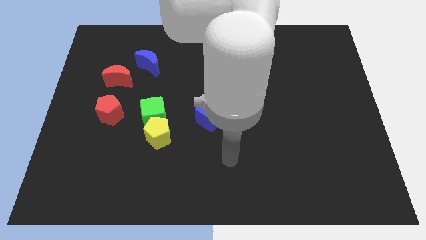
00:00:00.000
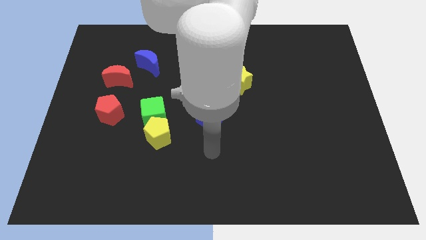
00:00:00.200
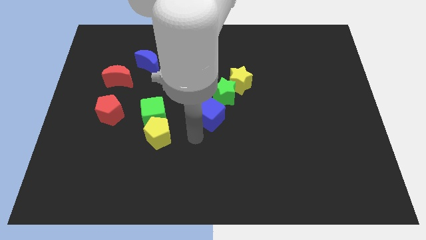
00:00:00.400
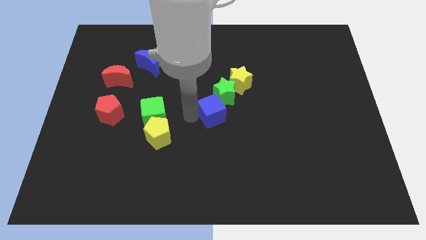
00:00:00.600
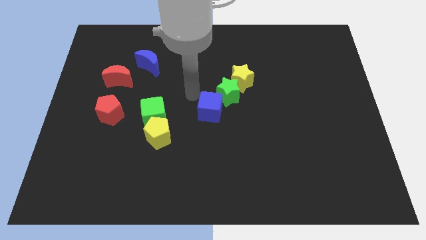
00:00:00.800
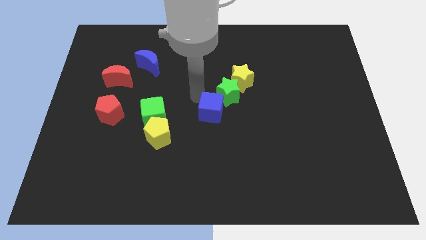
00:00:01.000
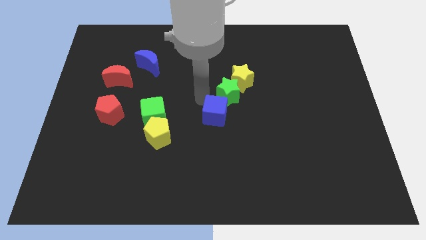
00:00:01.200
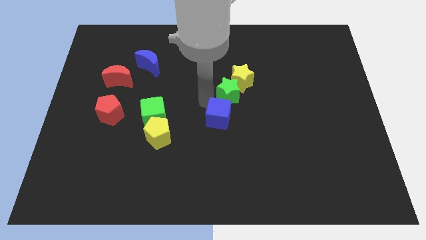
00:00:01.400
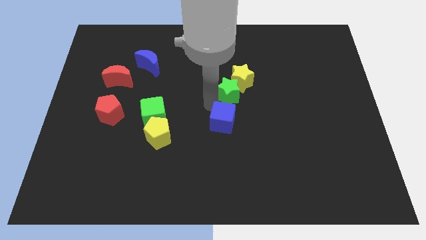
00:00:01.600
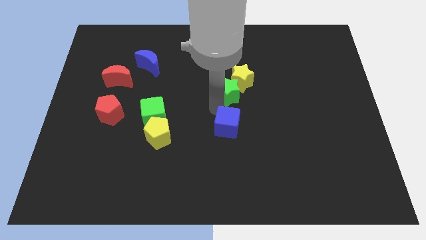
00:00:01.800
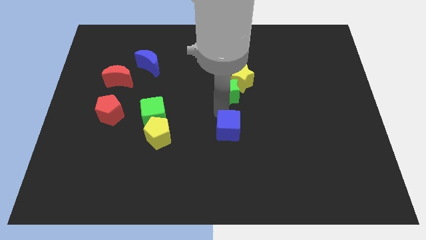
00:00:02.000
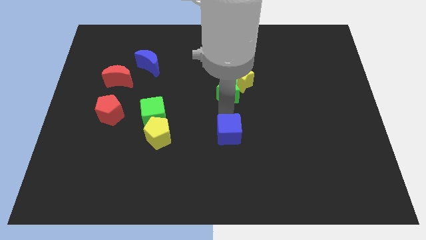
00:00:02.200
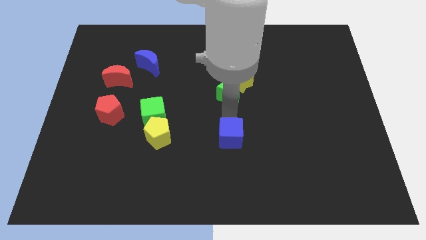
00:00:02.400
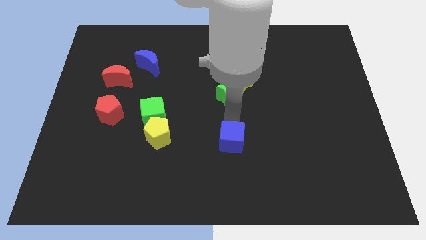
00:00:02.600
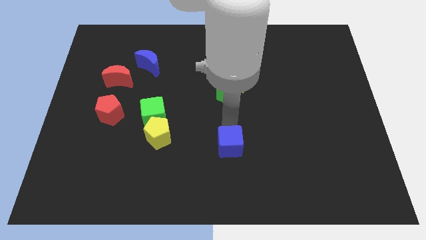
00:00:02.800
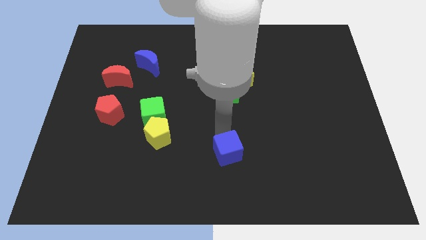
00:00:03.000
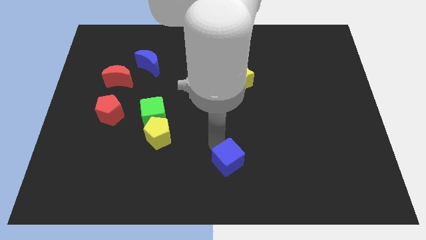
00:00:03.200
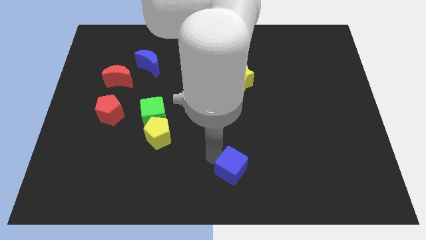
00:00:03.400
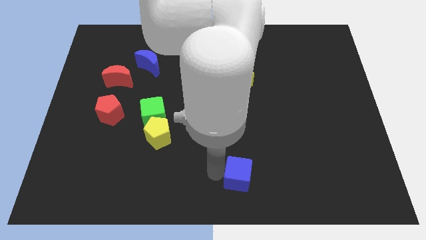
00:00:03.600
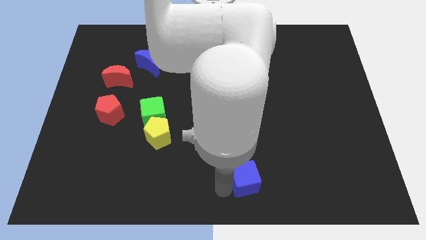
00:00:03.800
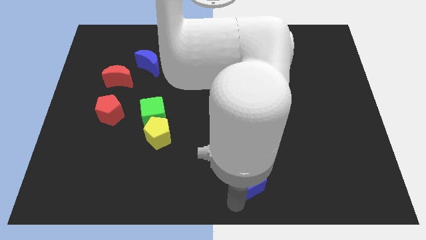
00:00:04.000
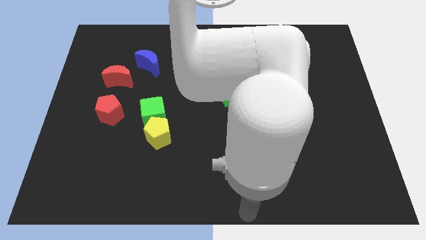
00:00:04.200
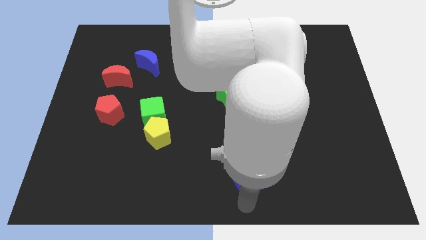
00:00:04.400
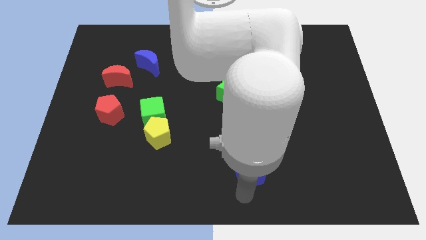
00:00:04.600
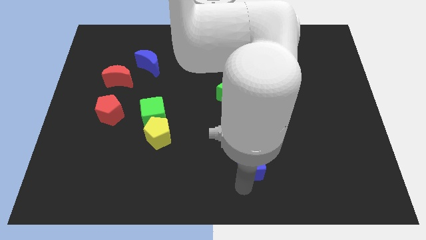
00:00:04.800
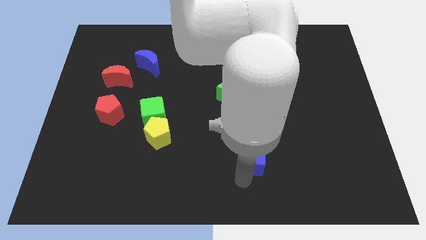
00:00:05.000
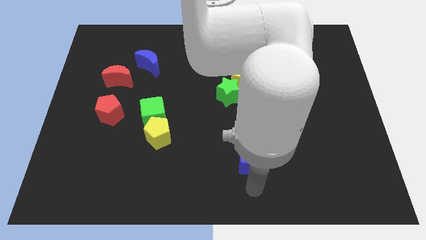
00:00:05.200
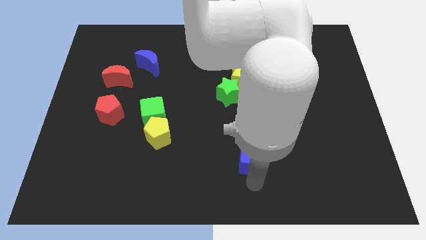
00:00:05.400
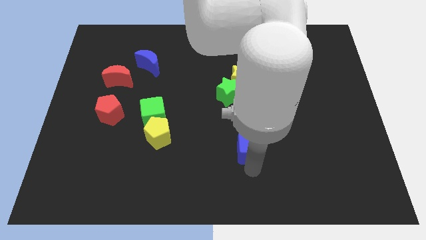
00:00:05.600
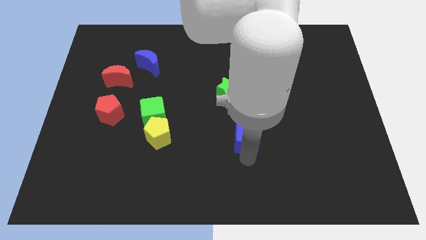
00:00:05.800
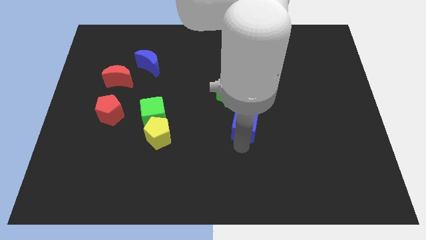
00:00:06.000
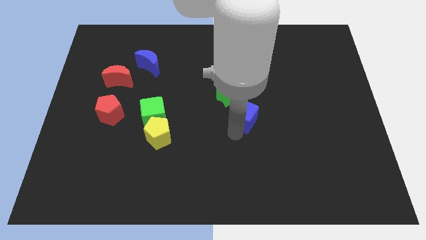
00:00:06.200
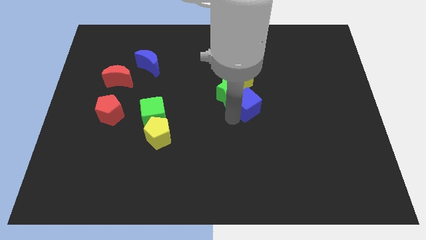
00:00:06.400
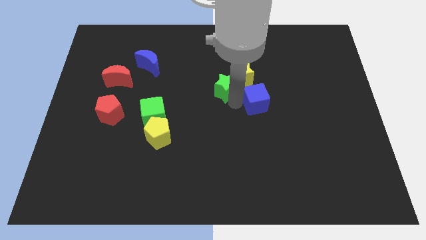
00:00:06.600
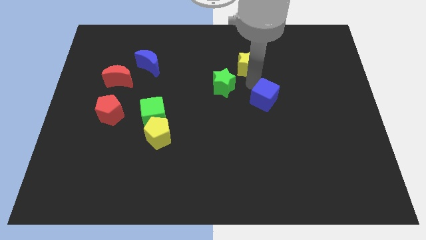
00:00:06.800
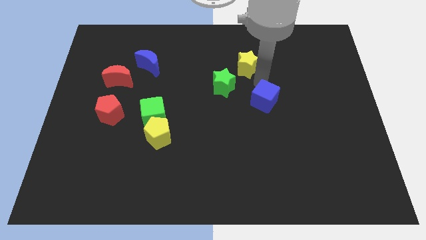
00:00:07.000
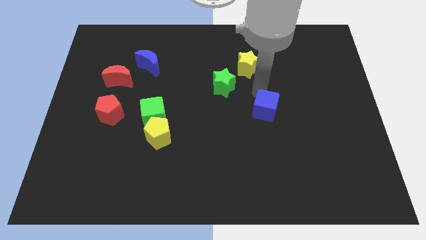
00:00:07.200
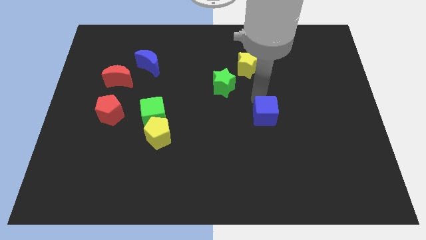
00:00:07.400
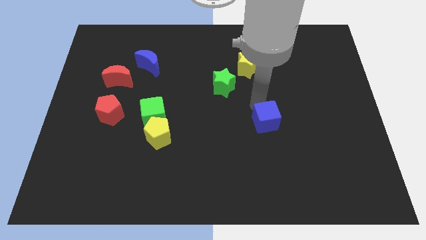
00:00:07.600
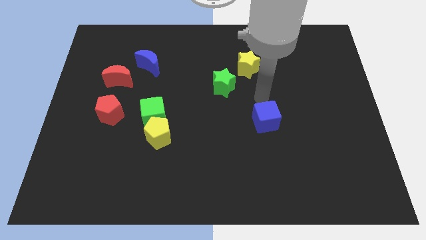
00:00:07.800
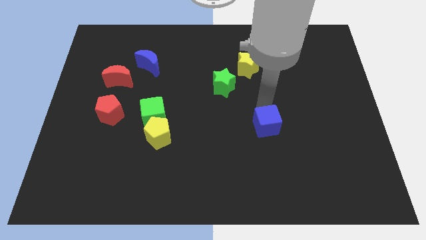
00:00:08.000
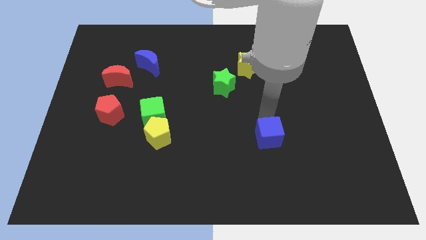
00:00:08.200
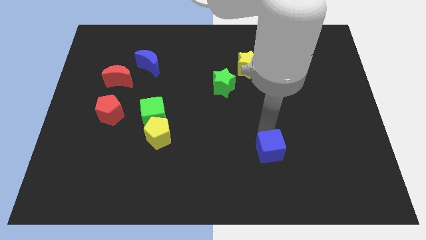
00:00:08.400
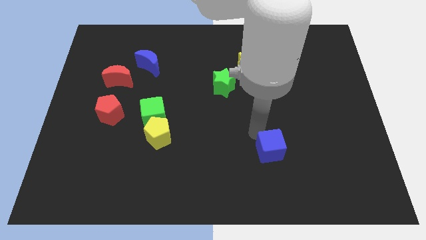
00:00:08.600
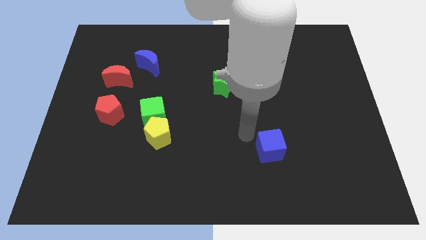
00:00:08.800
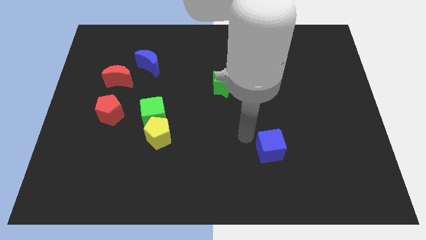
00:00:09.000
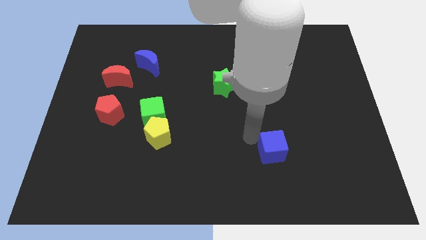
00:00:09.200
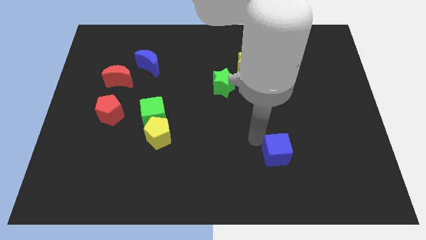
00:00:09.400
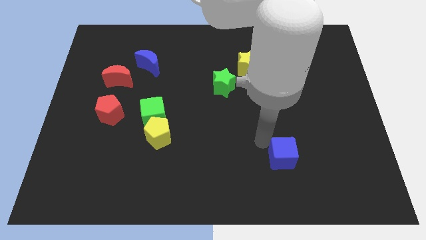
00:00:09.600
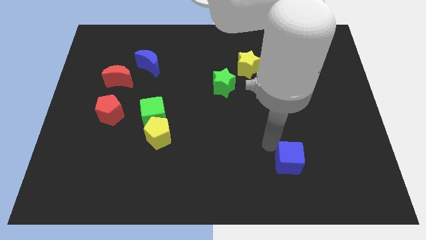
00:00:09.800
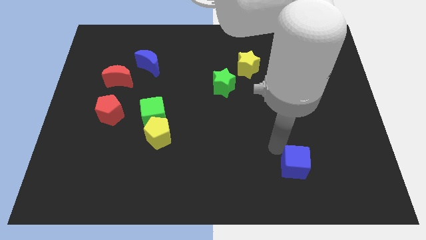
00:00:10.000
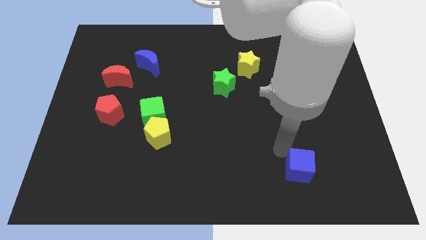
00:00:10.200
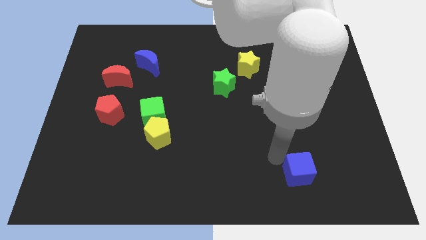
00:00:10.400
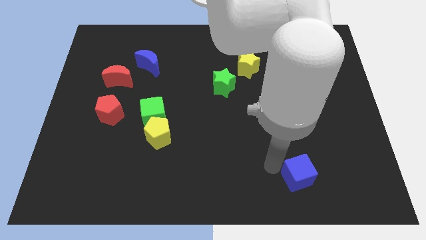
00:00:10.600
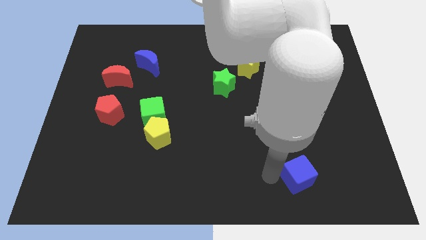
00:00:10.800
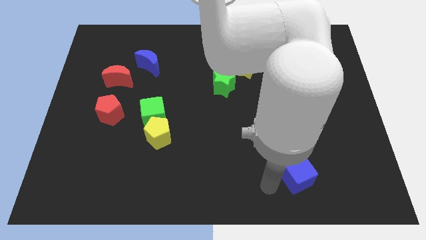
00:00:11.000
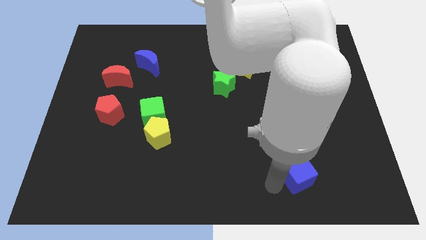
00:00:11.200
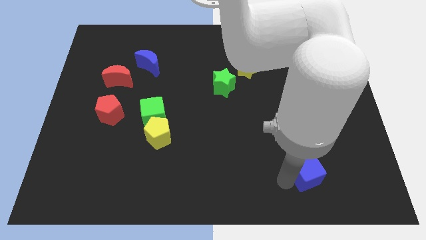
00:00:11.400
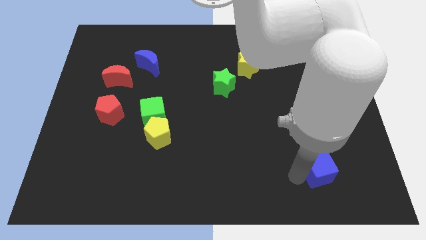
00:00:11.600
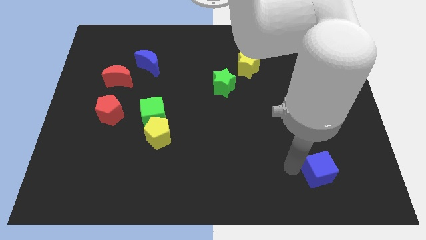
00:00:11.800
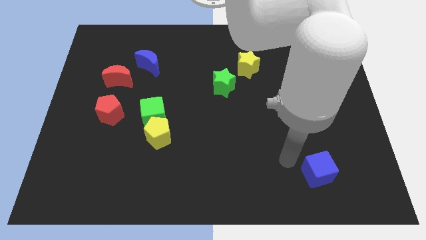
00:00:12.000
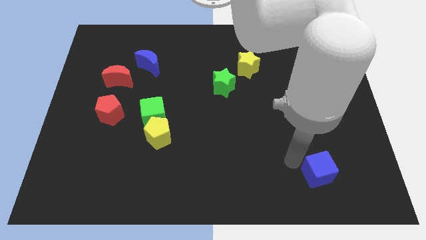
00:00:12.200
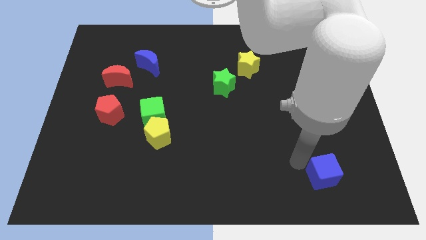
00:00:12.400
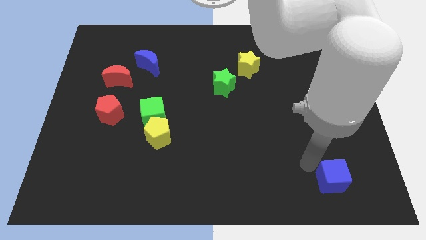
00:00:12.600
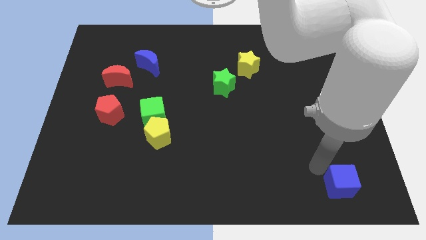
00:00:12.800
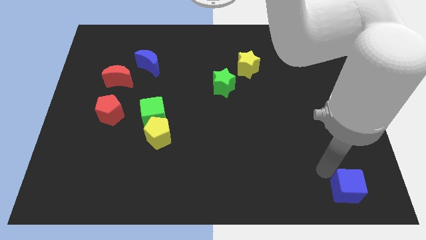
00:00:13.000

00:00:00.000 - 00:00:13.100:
slide the blue cube to the lower right corner
